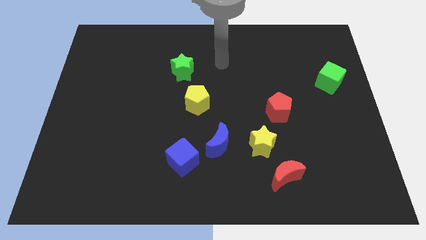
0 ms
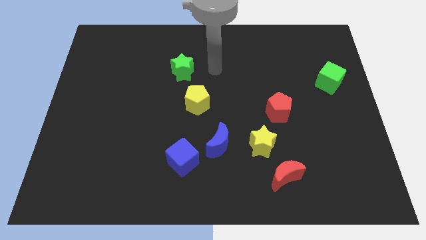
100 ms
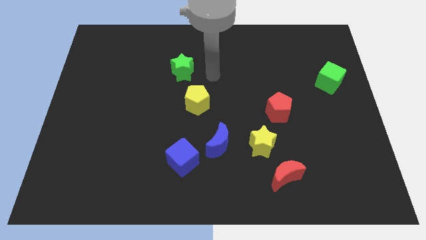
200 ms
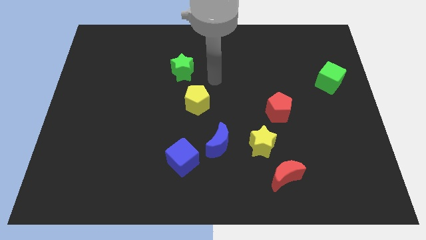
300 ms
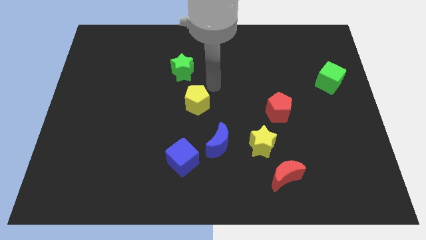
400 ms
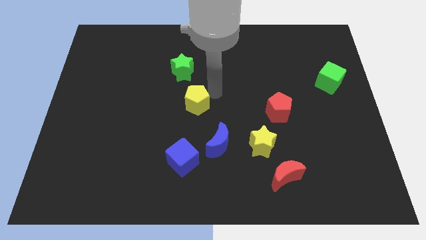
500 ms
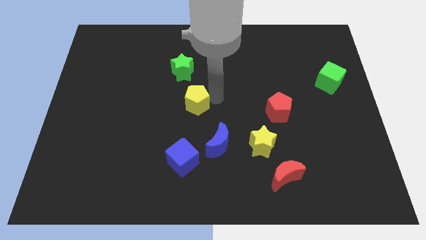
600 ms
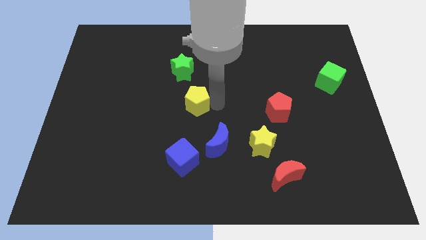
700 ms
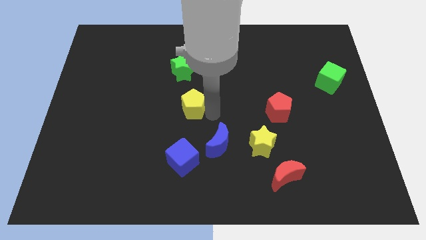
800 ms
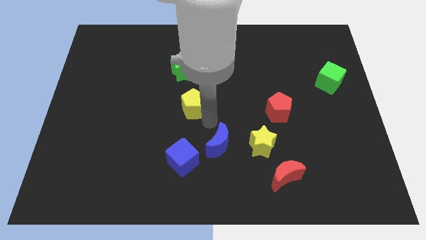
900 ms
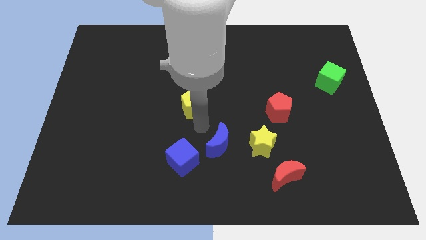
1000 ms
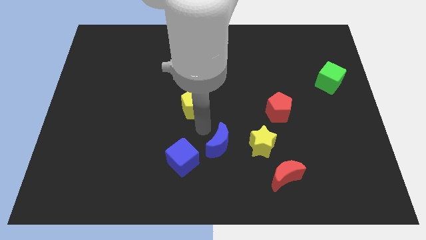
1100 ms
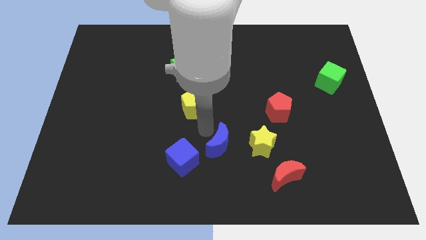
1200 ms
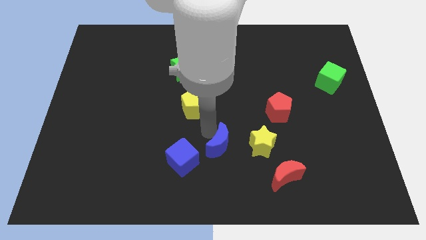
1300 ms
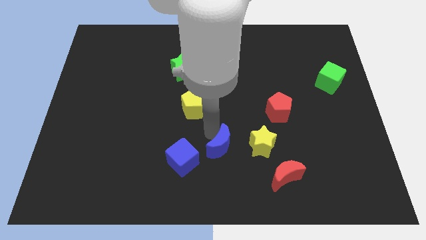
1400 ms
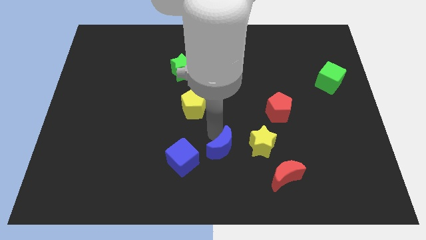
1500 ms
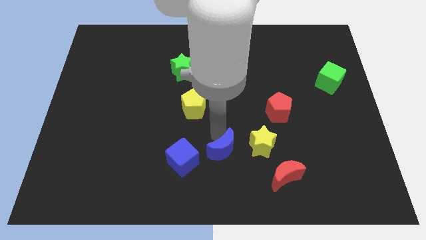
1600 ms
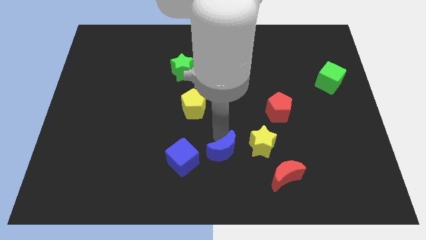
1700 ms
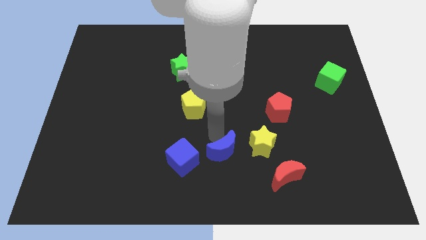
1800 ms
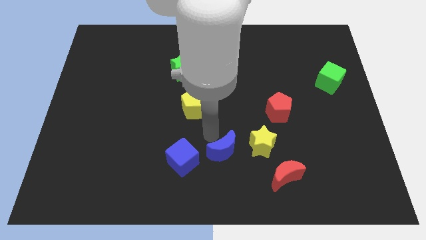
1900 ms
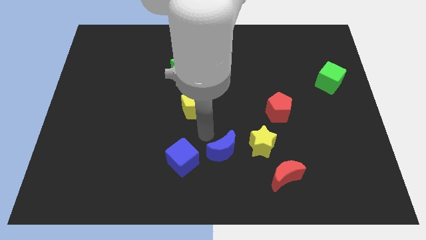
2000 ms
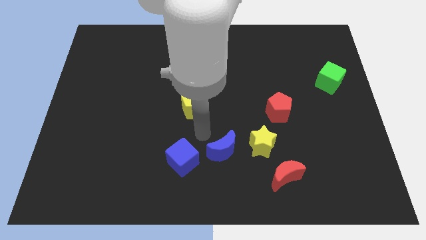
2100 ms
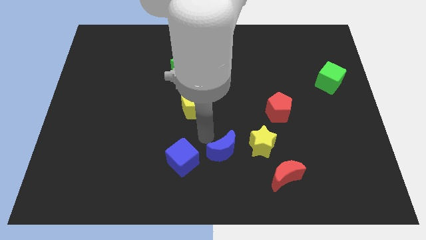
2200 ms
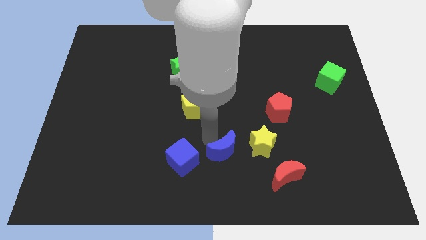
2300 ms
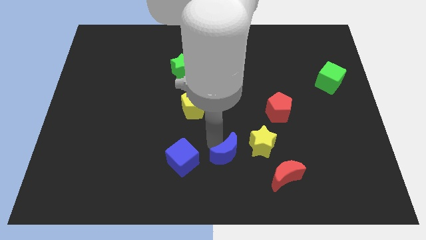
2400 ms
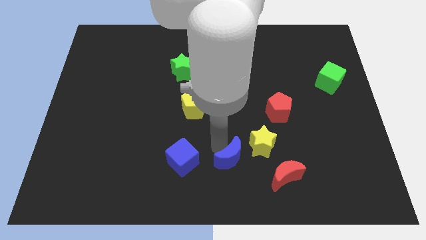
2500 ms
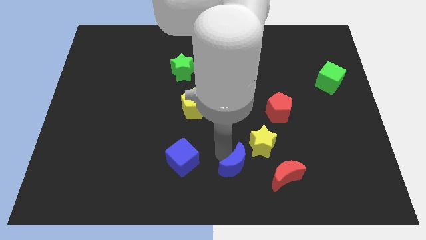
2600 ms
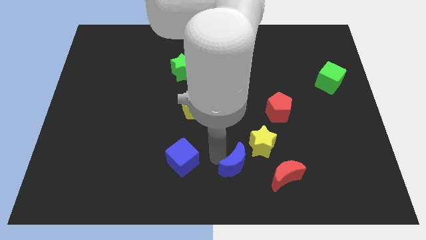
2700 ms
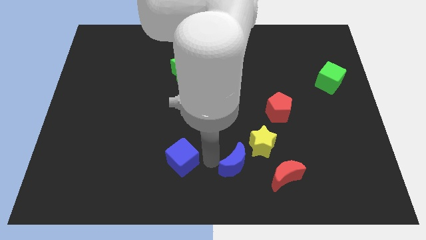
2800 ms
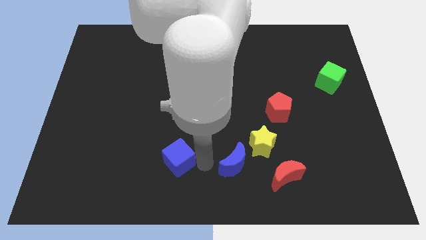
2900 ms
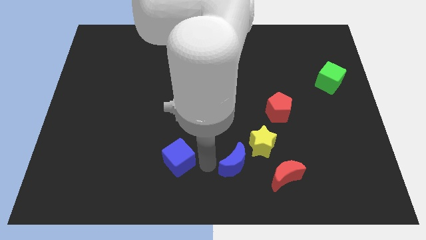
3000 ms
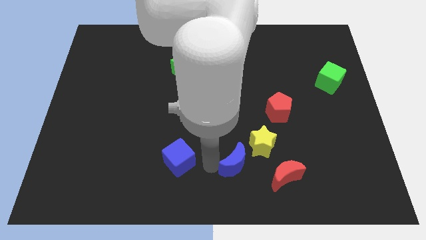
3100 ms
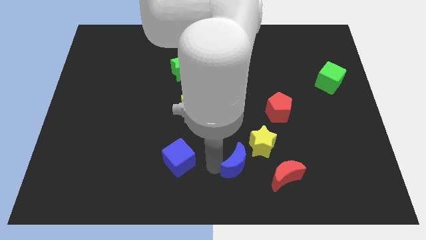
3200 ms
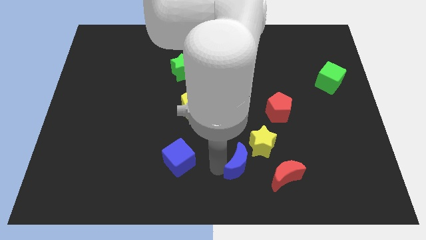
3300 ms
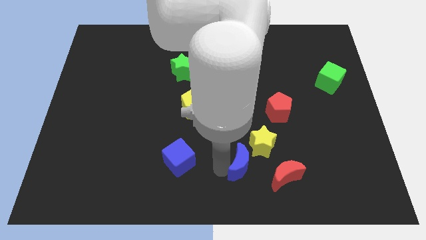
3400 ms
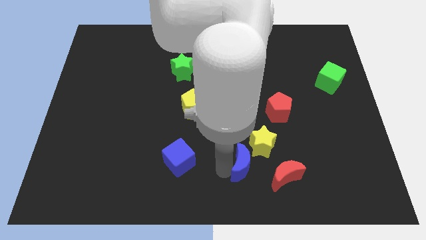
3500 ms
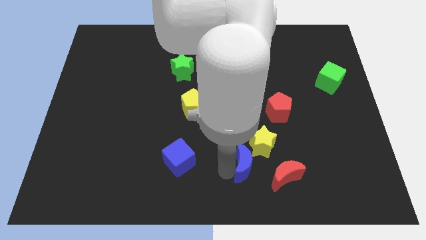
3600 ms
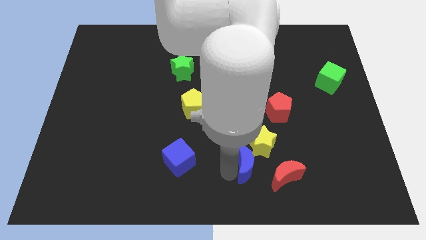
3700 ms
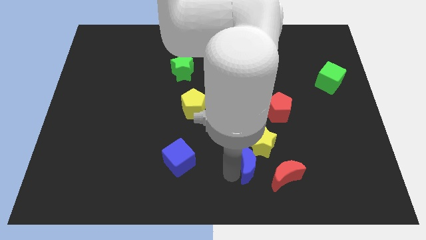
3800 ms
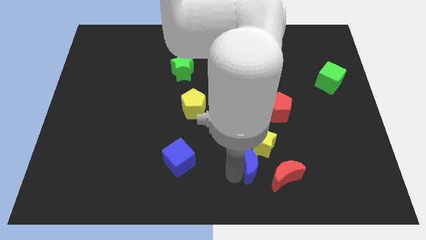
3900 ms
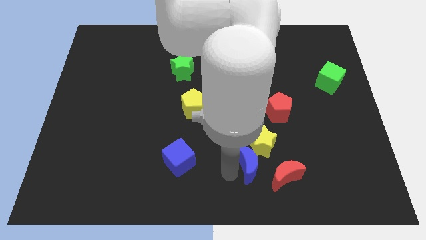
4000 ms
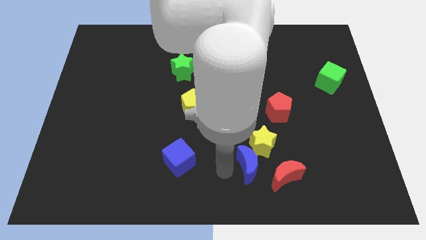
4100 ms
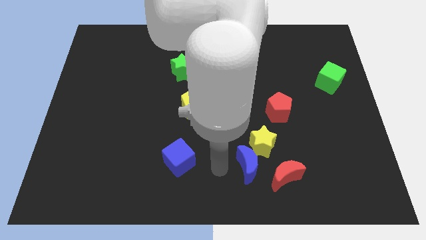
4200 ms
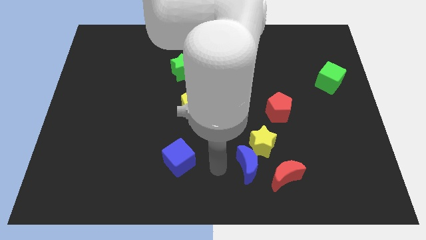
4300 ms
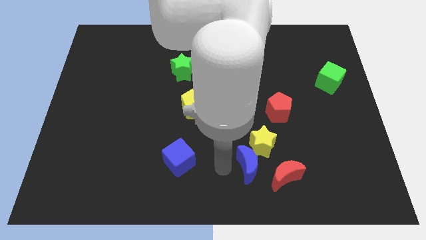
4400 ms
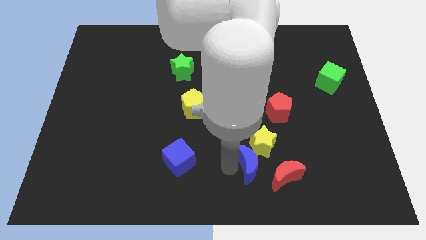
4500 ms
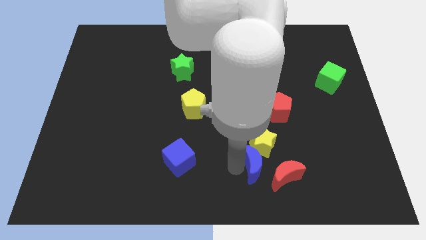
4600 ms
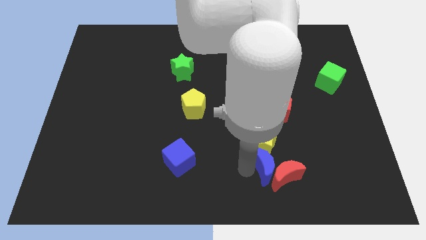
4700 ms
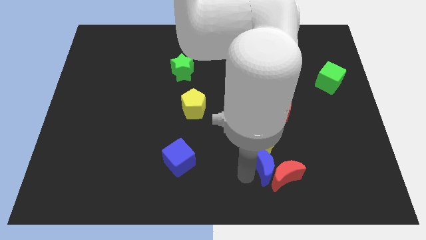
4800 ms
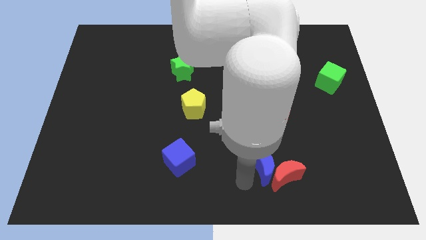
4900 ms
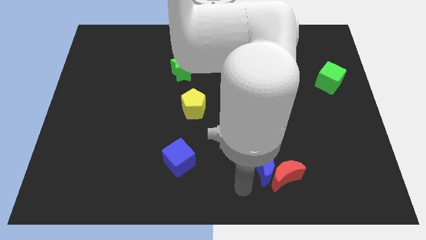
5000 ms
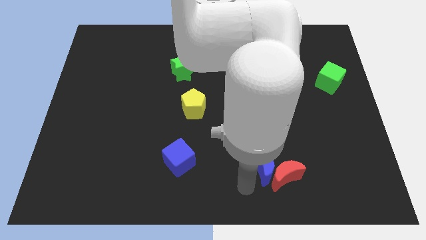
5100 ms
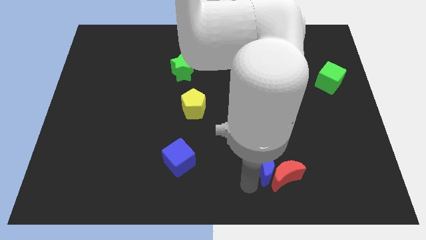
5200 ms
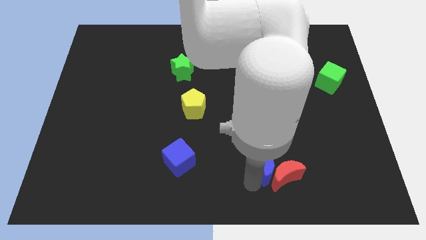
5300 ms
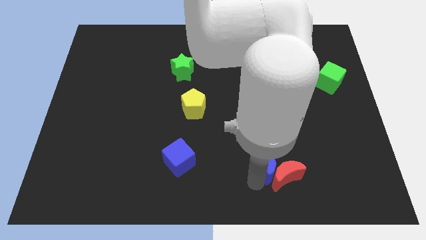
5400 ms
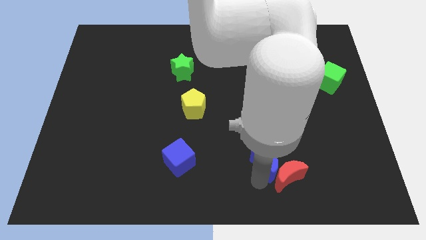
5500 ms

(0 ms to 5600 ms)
put the blue moon to the bottom of the red pentagon

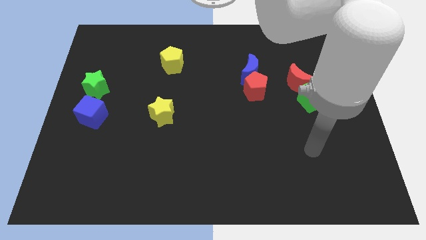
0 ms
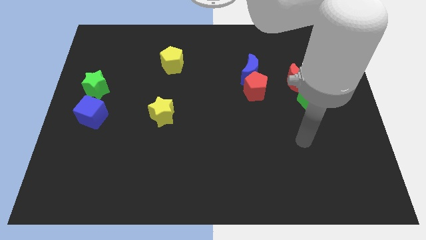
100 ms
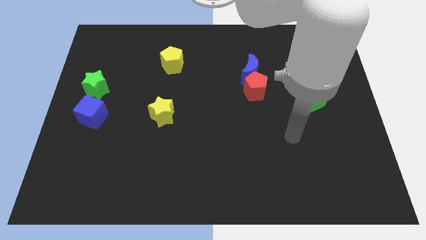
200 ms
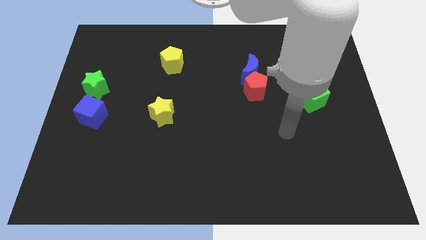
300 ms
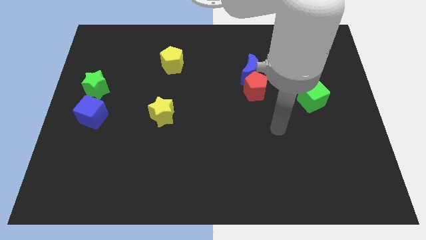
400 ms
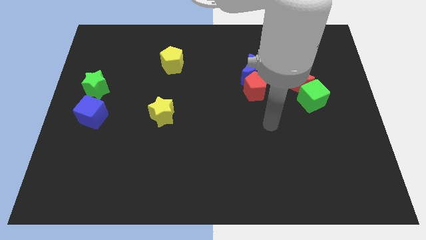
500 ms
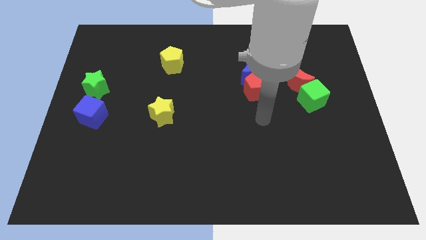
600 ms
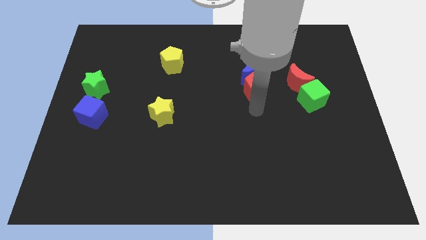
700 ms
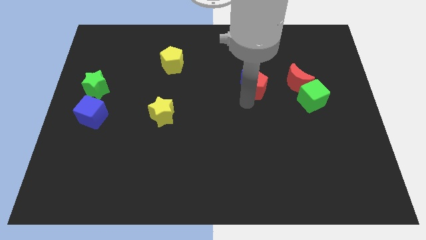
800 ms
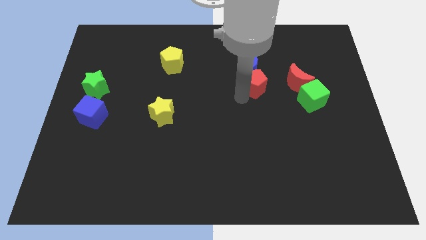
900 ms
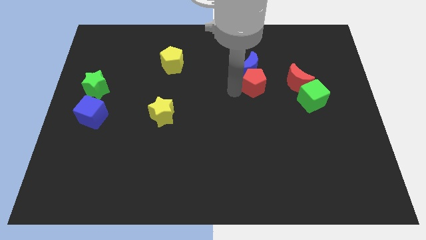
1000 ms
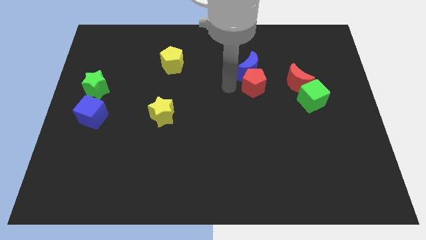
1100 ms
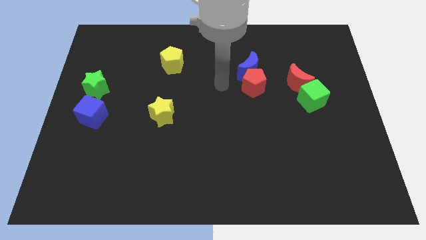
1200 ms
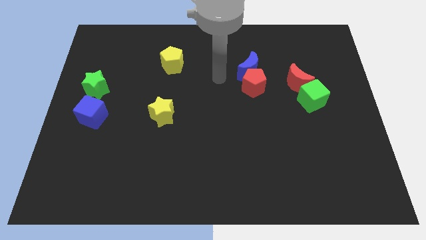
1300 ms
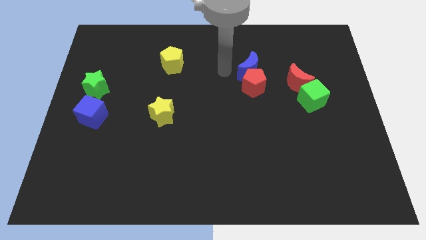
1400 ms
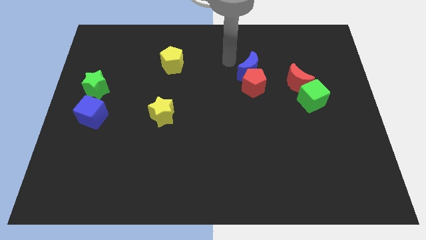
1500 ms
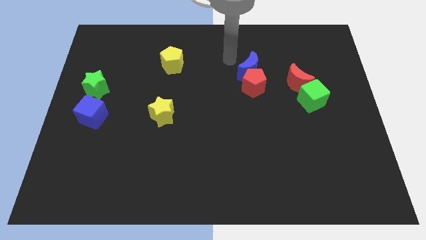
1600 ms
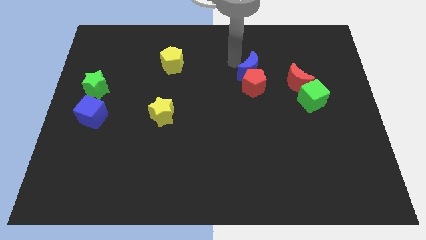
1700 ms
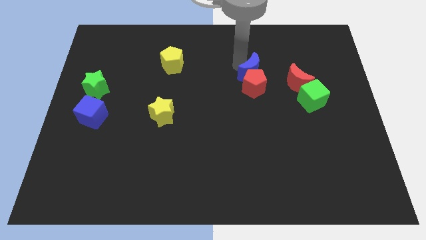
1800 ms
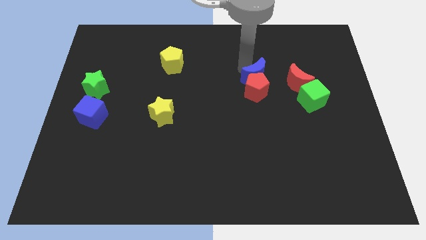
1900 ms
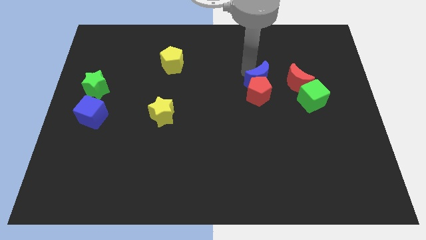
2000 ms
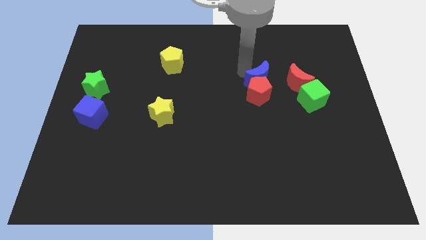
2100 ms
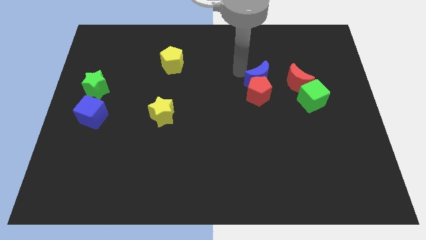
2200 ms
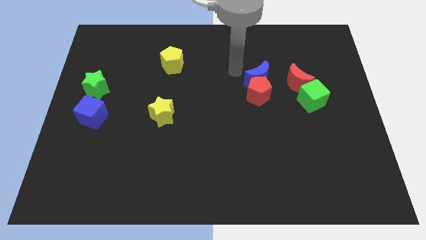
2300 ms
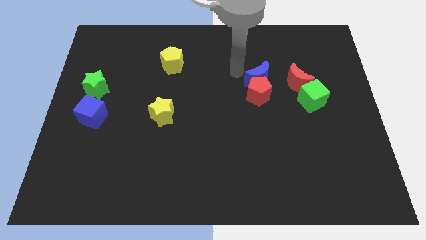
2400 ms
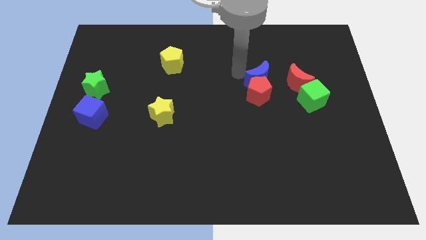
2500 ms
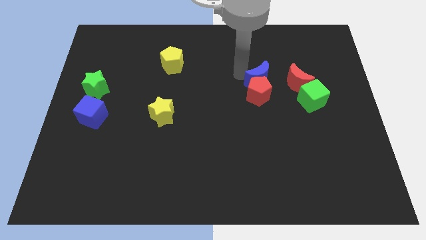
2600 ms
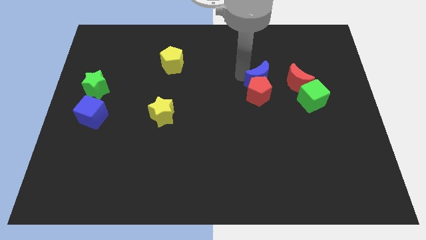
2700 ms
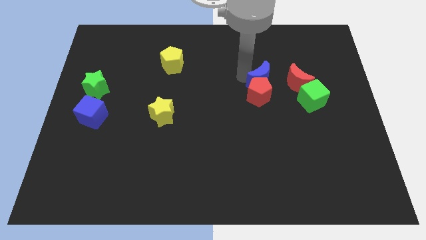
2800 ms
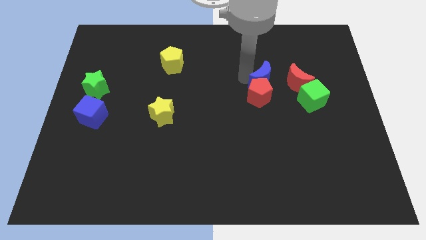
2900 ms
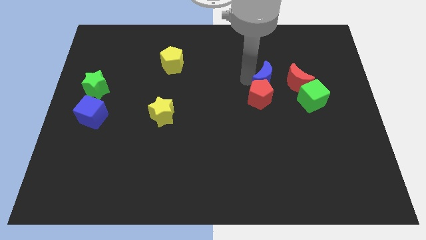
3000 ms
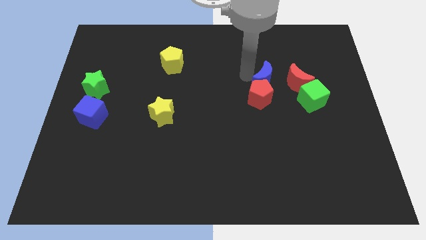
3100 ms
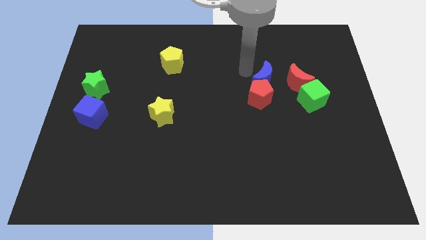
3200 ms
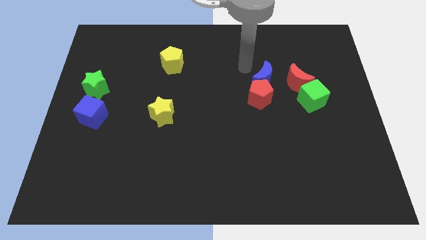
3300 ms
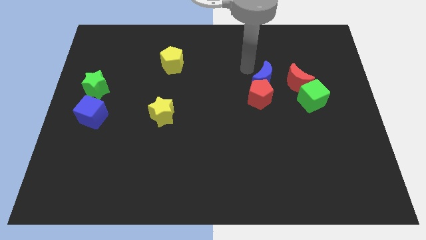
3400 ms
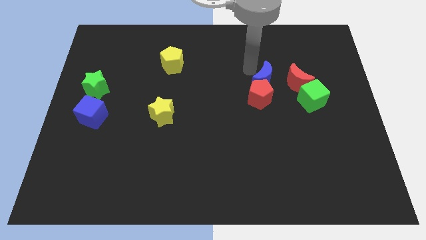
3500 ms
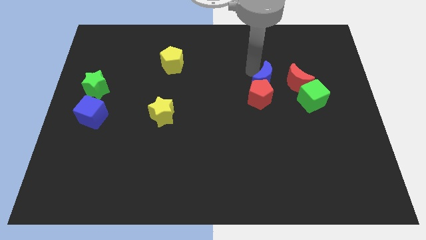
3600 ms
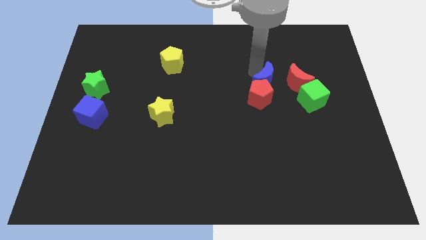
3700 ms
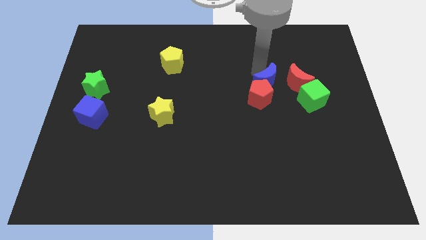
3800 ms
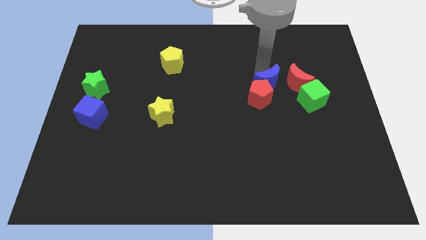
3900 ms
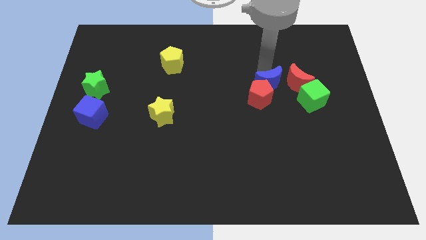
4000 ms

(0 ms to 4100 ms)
put the blue moon left of the green cube
